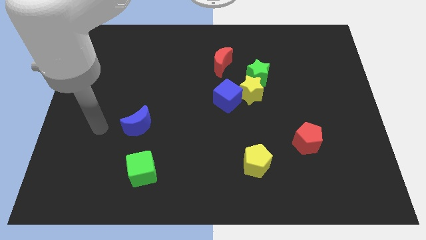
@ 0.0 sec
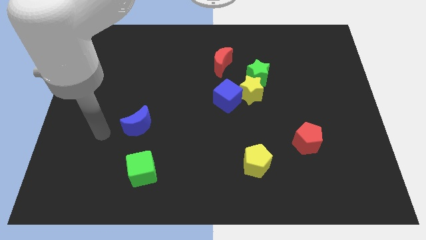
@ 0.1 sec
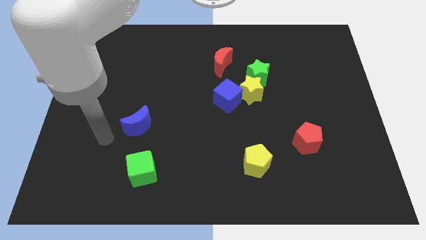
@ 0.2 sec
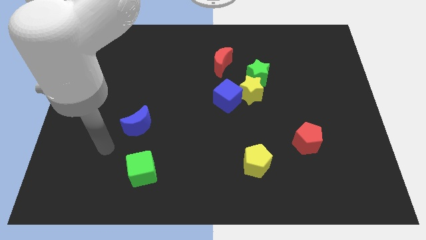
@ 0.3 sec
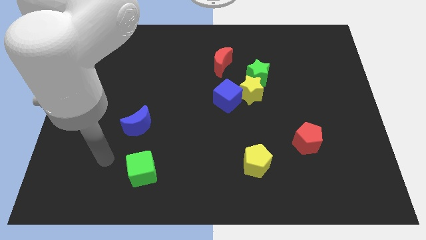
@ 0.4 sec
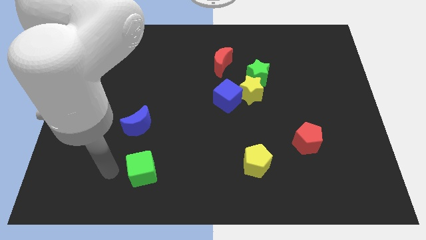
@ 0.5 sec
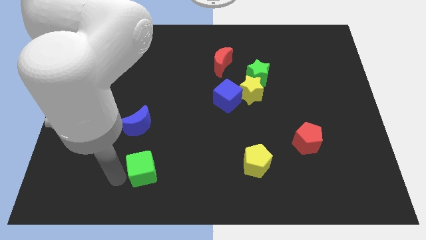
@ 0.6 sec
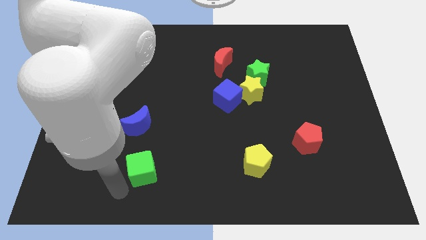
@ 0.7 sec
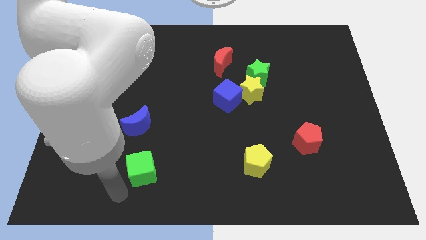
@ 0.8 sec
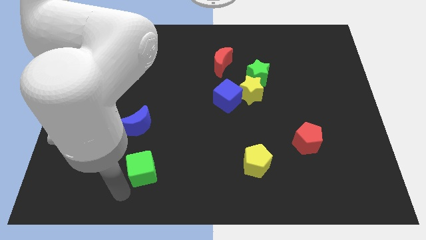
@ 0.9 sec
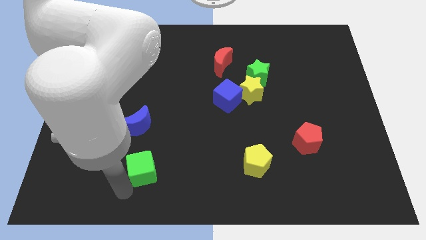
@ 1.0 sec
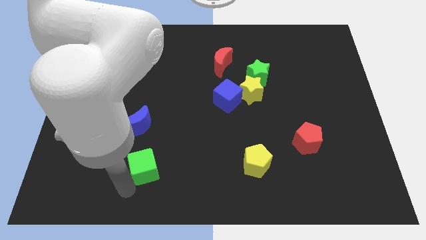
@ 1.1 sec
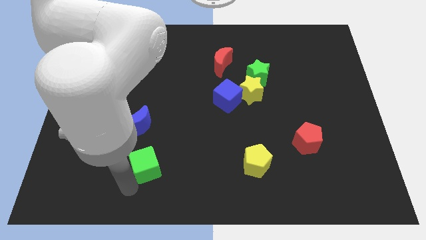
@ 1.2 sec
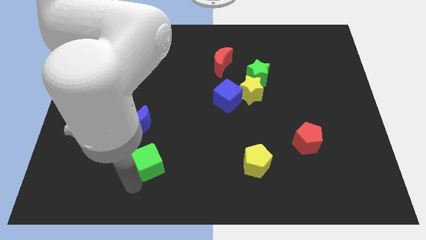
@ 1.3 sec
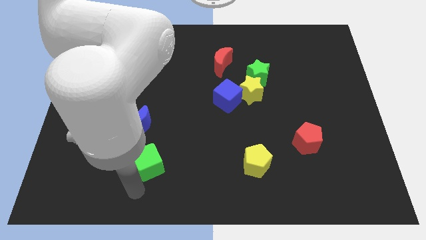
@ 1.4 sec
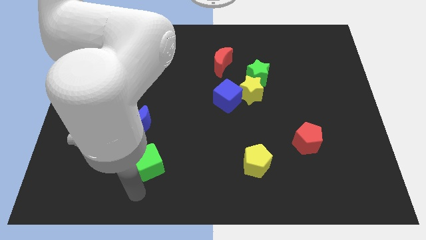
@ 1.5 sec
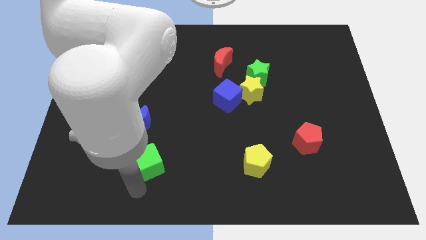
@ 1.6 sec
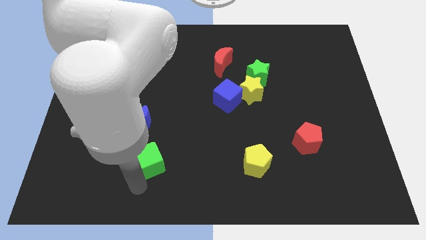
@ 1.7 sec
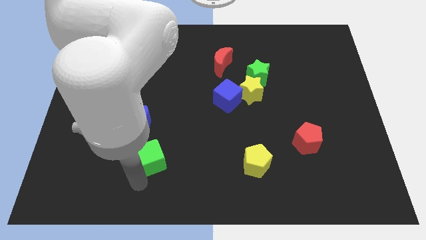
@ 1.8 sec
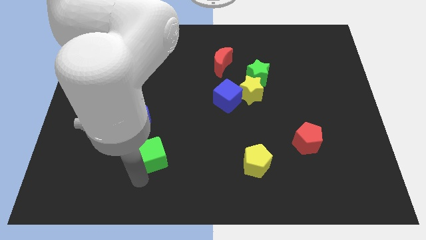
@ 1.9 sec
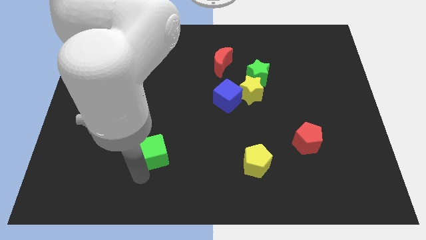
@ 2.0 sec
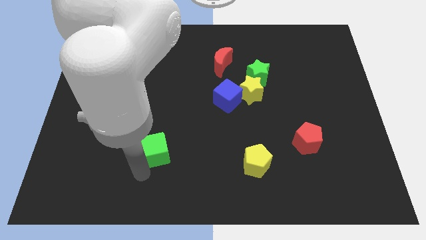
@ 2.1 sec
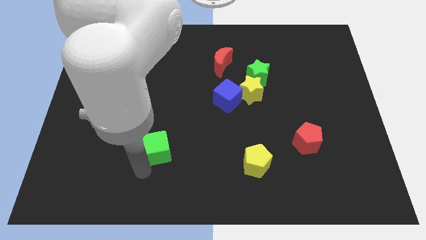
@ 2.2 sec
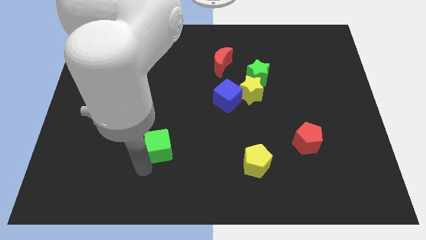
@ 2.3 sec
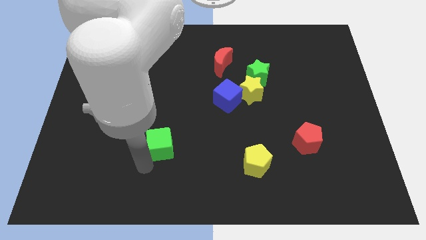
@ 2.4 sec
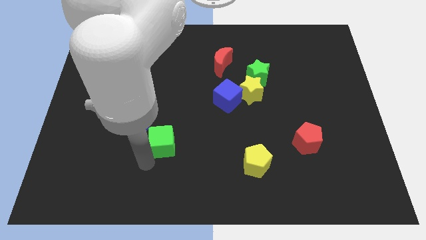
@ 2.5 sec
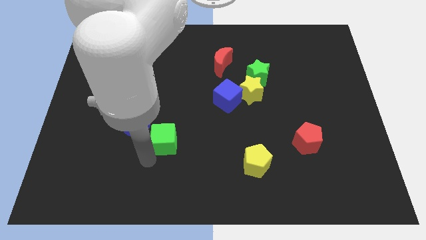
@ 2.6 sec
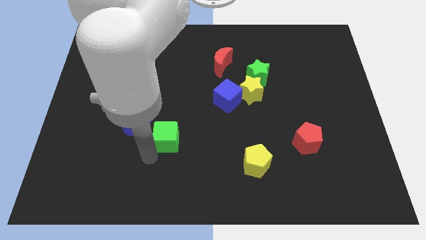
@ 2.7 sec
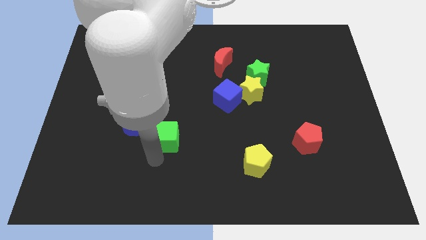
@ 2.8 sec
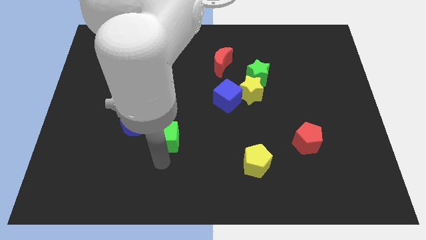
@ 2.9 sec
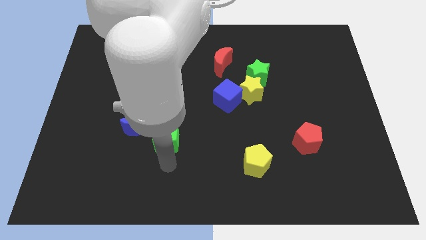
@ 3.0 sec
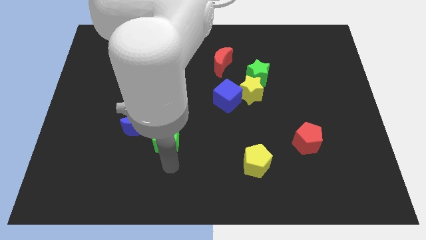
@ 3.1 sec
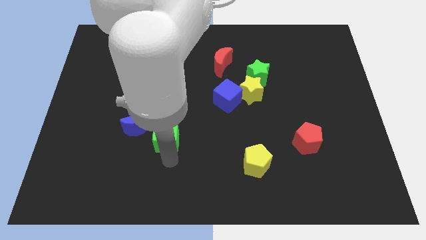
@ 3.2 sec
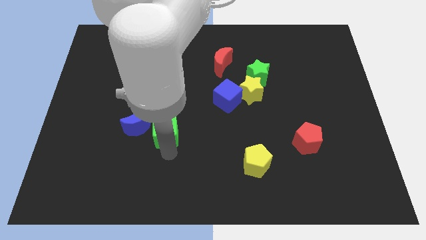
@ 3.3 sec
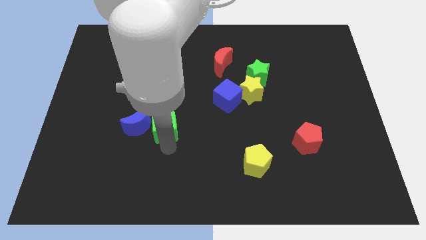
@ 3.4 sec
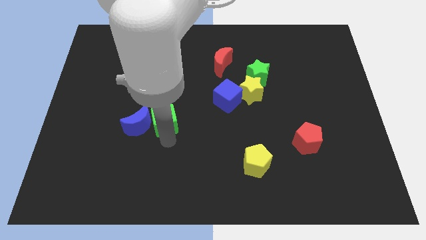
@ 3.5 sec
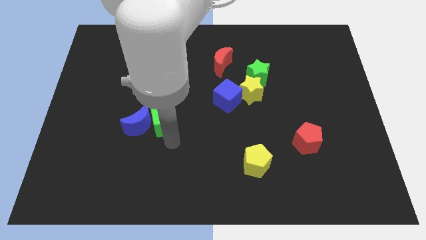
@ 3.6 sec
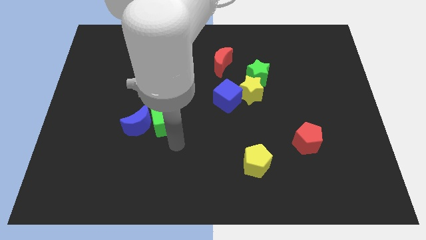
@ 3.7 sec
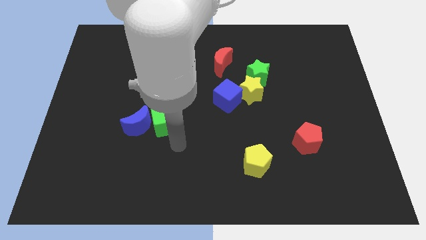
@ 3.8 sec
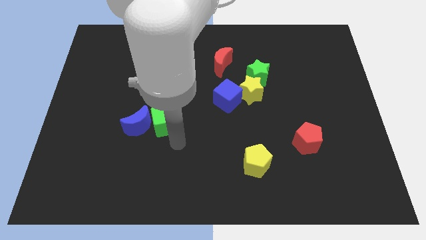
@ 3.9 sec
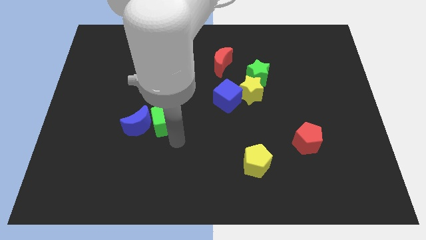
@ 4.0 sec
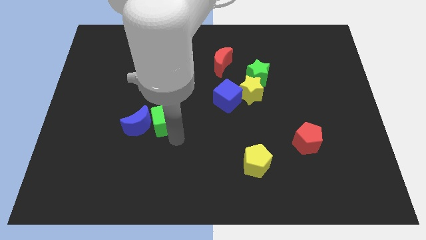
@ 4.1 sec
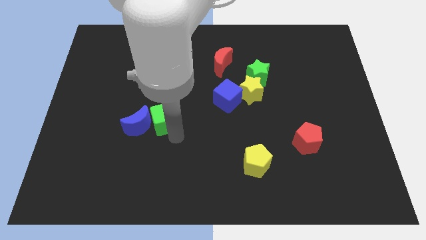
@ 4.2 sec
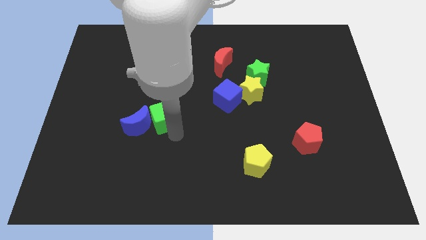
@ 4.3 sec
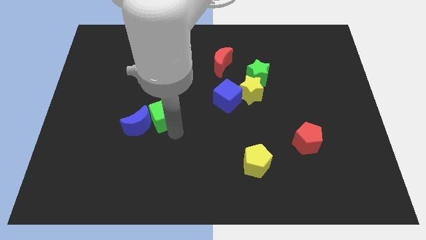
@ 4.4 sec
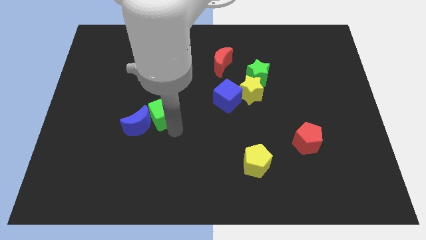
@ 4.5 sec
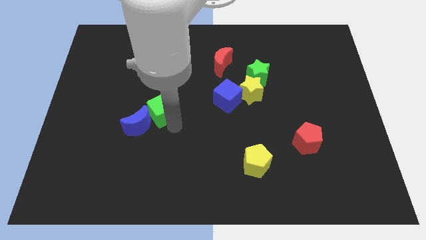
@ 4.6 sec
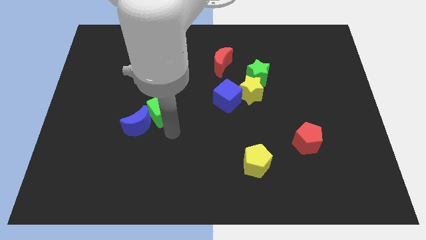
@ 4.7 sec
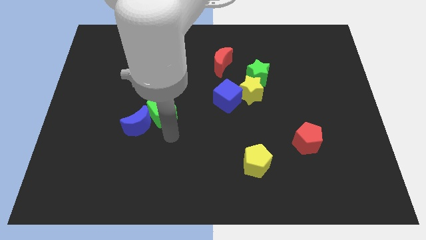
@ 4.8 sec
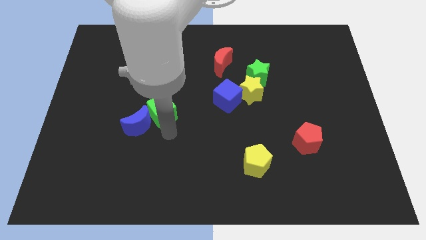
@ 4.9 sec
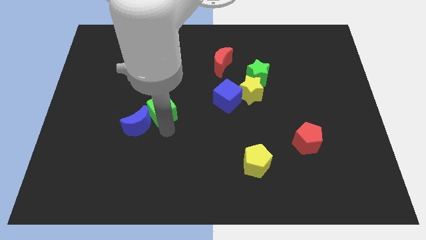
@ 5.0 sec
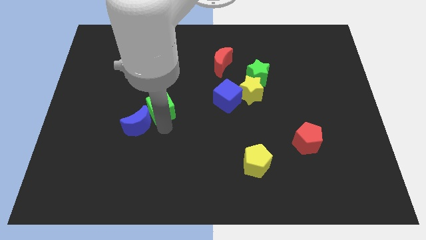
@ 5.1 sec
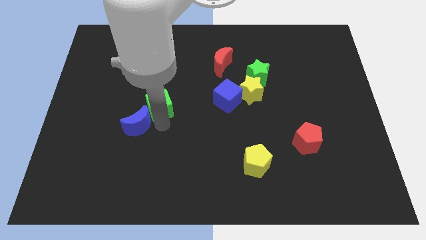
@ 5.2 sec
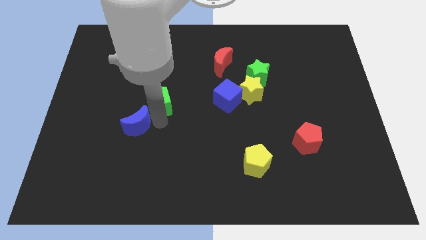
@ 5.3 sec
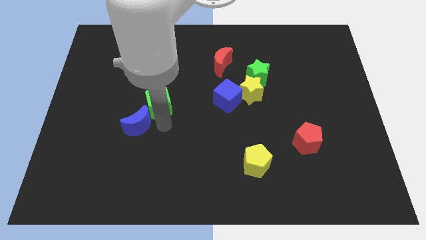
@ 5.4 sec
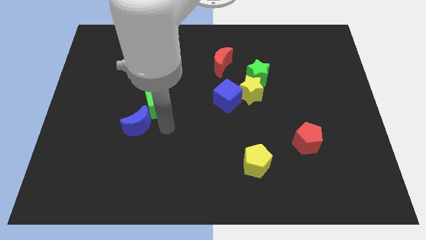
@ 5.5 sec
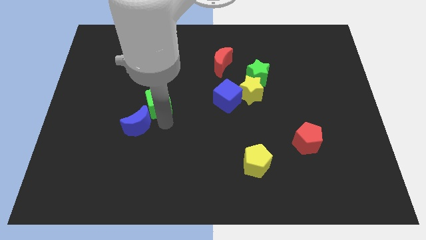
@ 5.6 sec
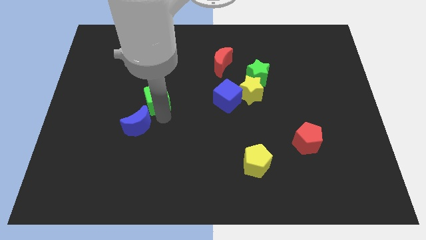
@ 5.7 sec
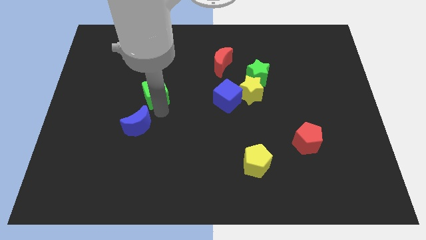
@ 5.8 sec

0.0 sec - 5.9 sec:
push the green cube upwards

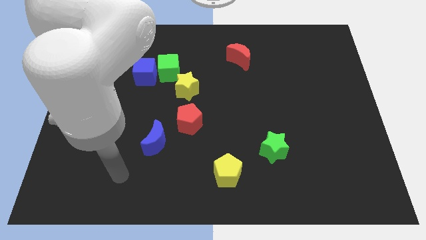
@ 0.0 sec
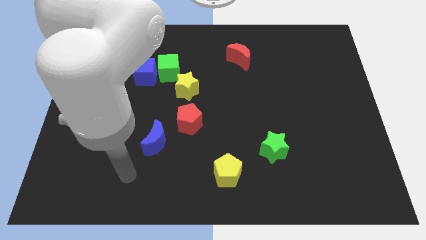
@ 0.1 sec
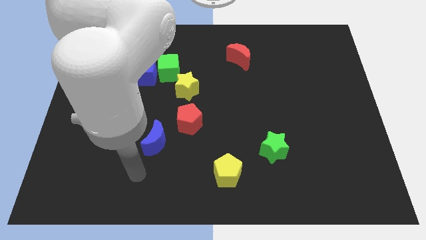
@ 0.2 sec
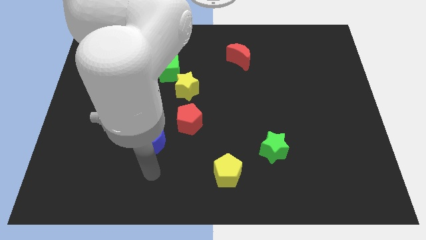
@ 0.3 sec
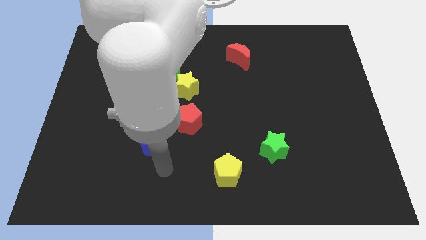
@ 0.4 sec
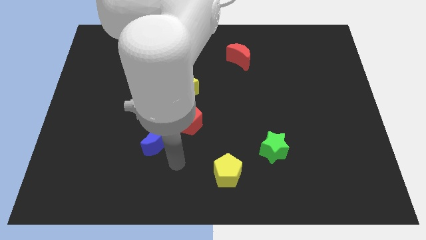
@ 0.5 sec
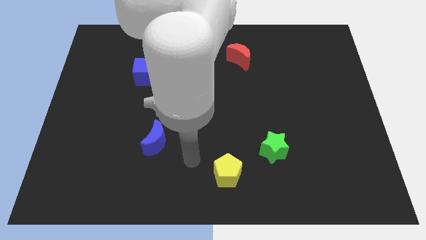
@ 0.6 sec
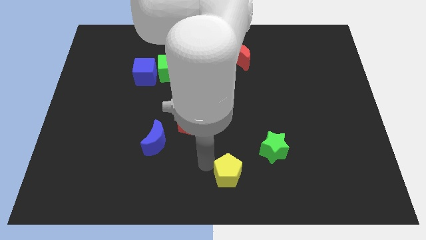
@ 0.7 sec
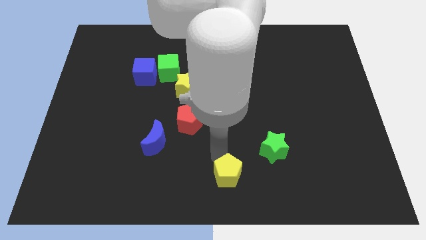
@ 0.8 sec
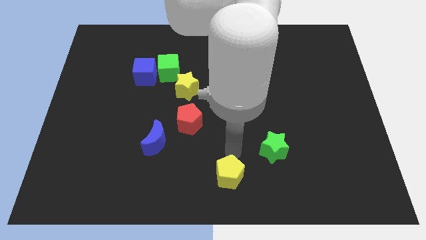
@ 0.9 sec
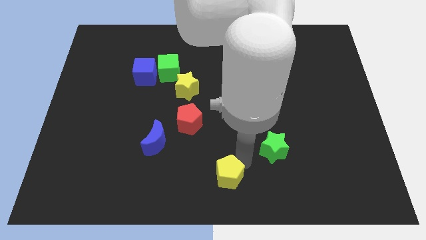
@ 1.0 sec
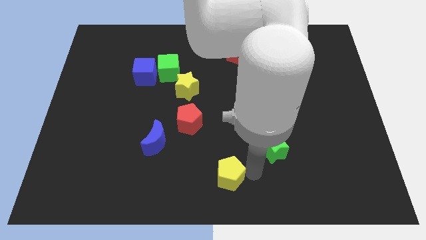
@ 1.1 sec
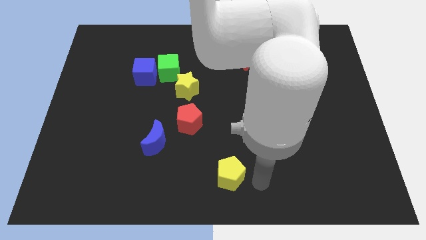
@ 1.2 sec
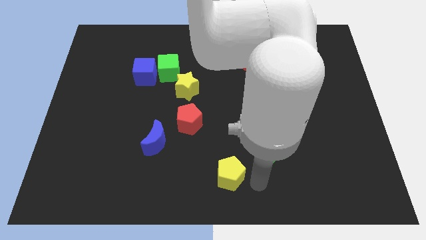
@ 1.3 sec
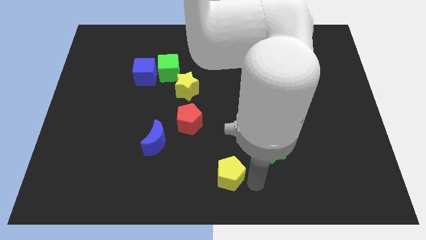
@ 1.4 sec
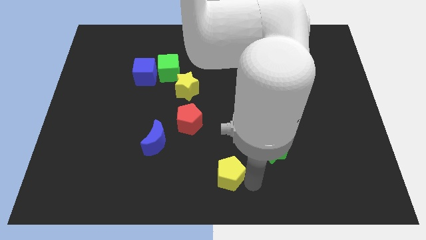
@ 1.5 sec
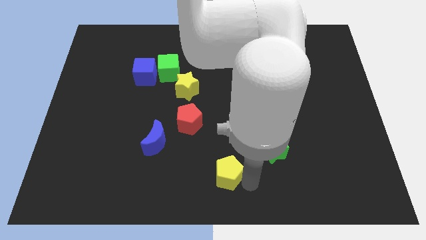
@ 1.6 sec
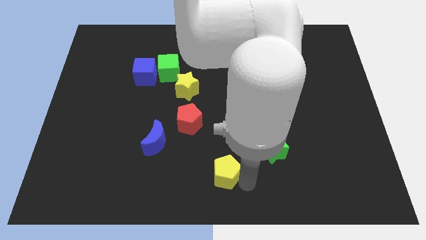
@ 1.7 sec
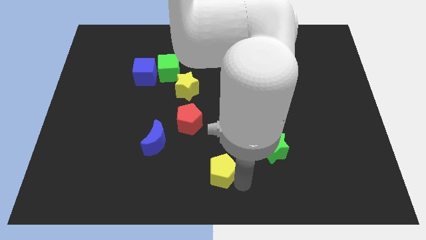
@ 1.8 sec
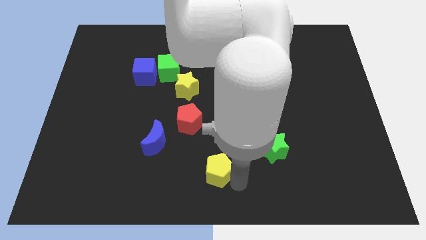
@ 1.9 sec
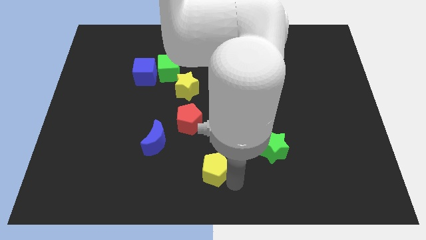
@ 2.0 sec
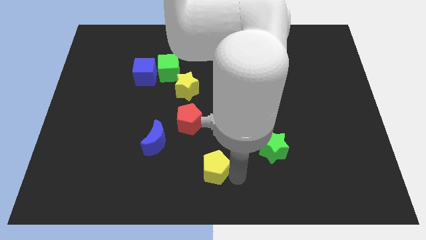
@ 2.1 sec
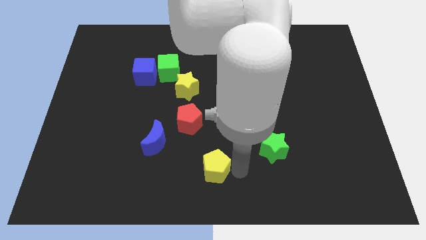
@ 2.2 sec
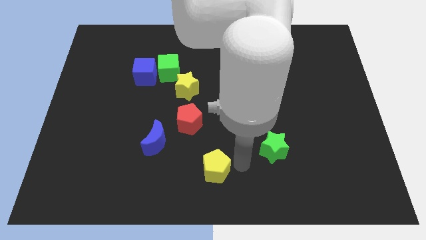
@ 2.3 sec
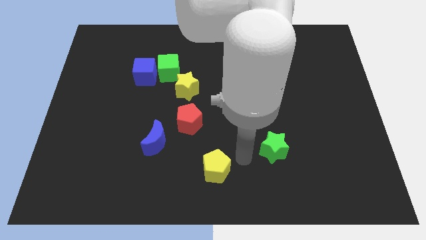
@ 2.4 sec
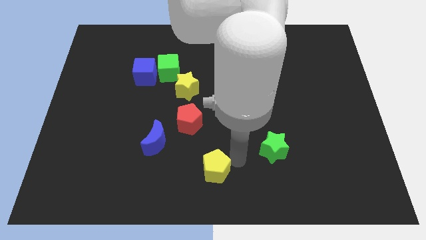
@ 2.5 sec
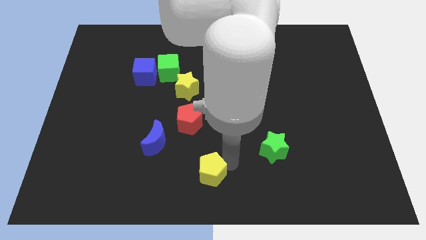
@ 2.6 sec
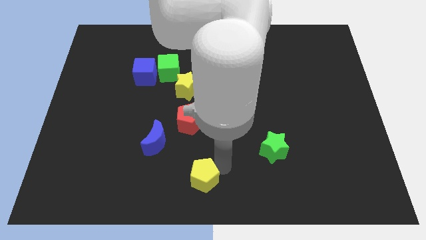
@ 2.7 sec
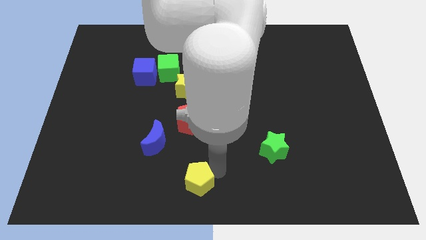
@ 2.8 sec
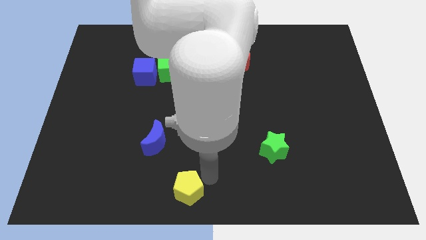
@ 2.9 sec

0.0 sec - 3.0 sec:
slide the yellow pentagon left a bit
